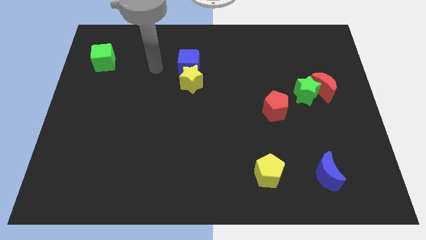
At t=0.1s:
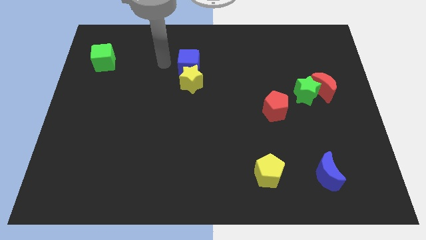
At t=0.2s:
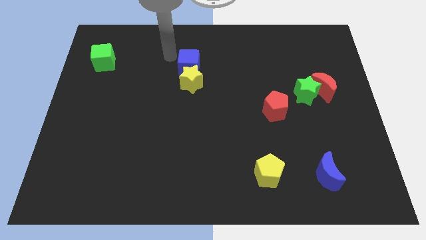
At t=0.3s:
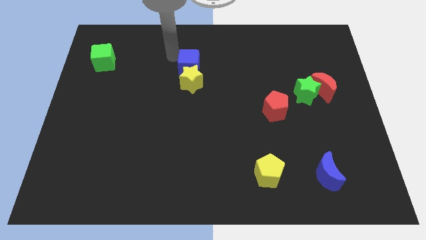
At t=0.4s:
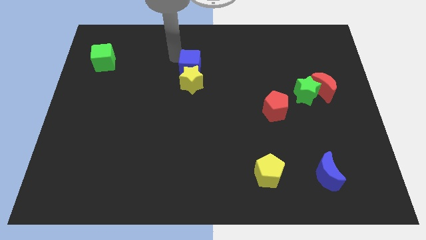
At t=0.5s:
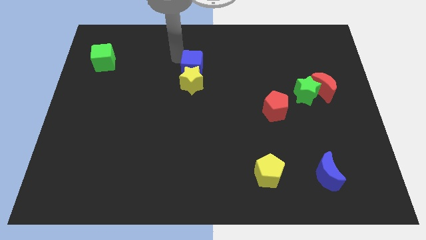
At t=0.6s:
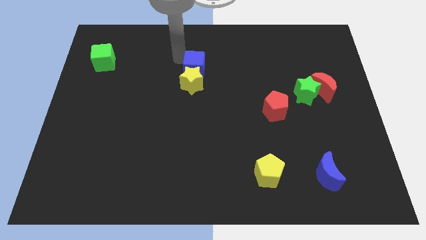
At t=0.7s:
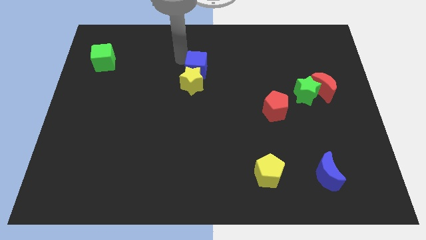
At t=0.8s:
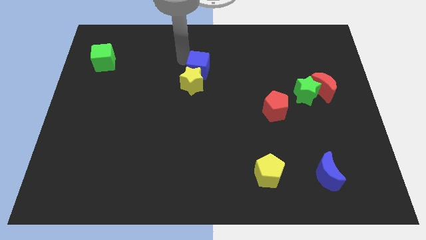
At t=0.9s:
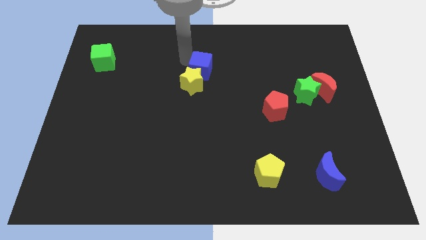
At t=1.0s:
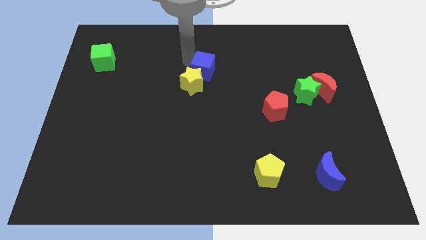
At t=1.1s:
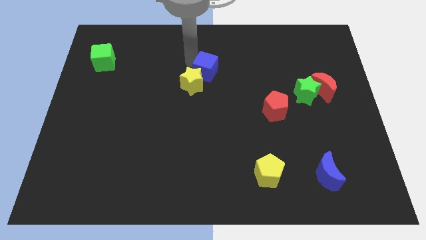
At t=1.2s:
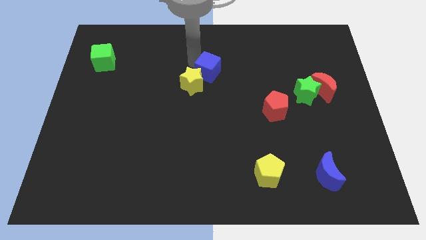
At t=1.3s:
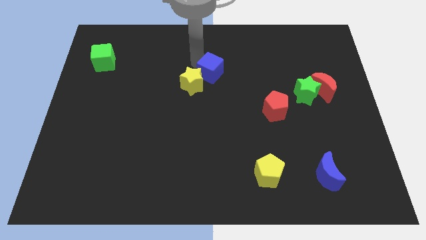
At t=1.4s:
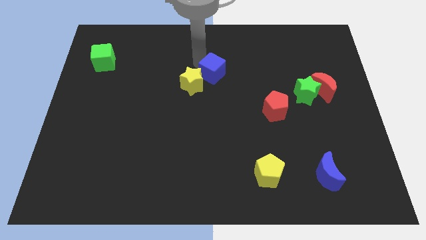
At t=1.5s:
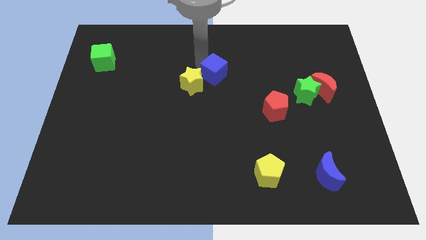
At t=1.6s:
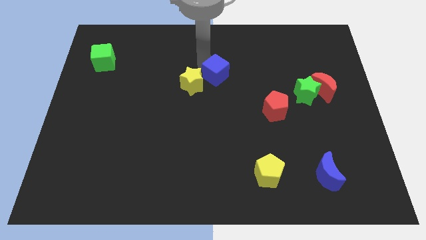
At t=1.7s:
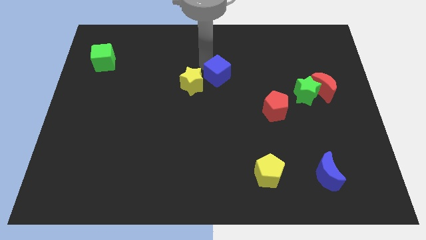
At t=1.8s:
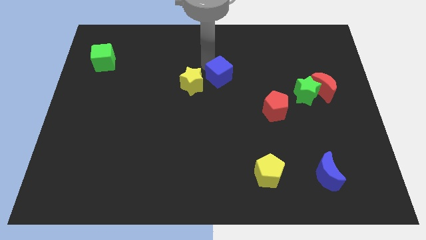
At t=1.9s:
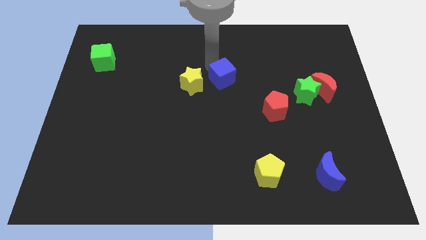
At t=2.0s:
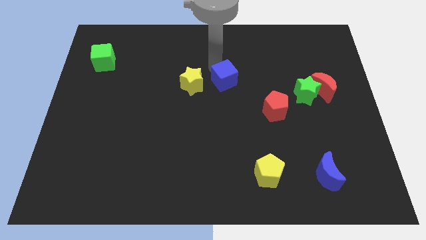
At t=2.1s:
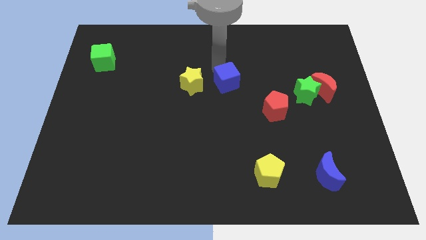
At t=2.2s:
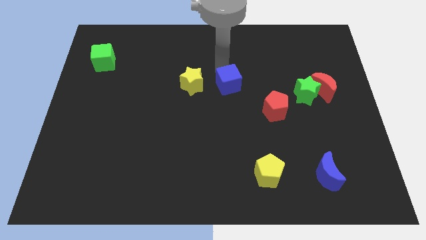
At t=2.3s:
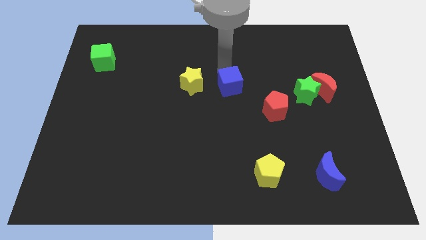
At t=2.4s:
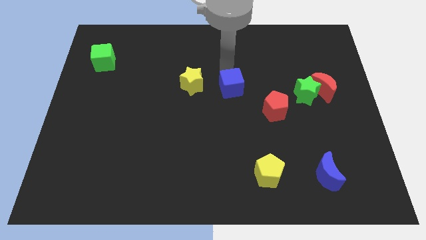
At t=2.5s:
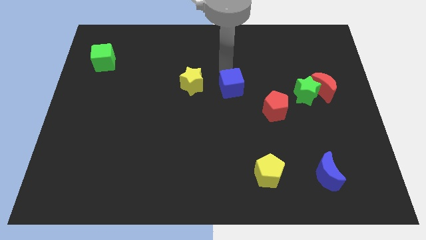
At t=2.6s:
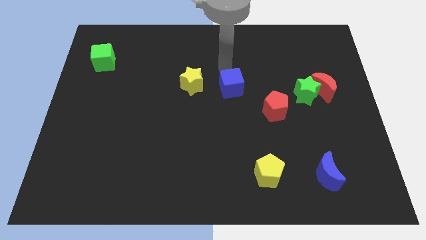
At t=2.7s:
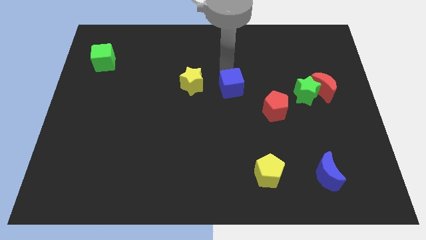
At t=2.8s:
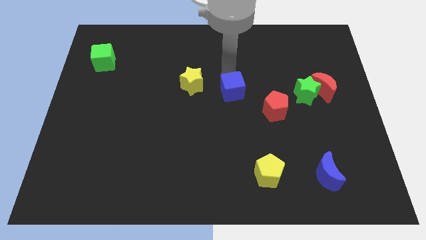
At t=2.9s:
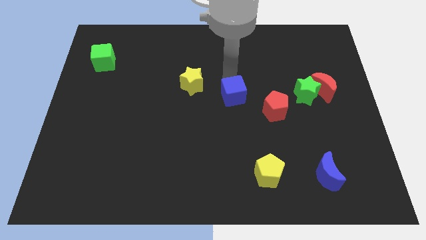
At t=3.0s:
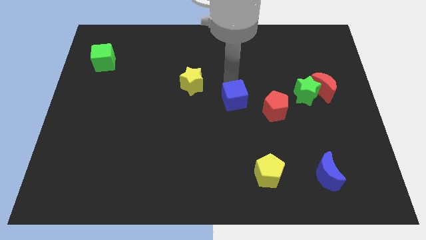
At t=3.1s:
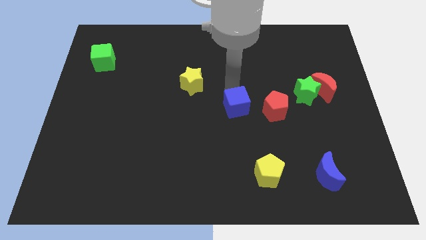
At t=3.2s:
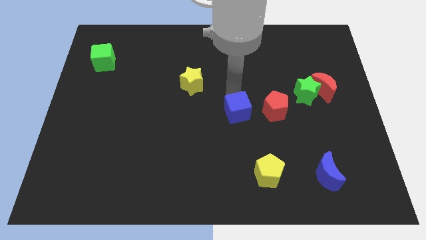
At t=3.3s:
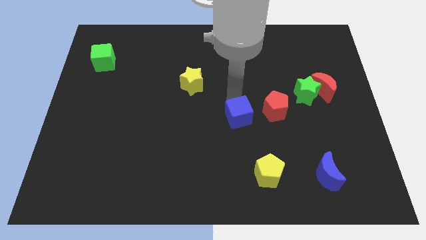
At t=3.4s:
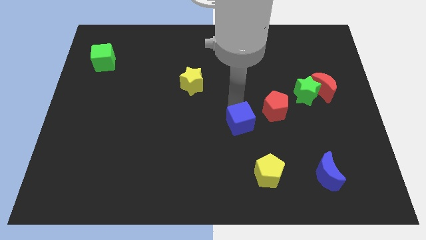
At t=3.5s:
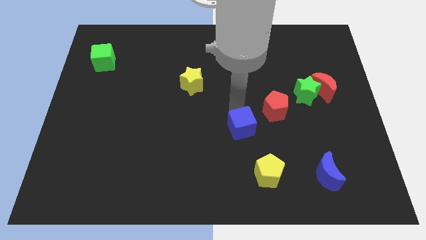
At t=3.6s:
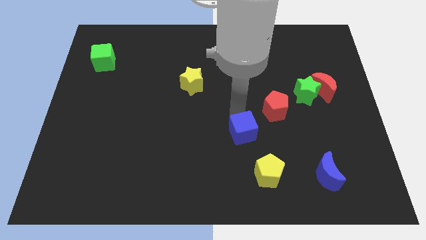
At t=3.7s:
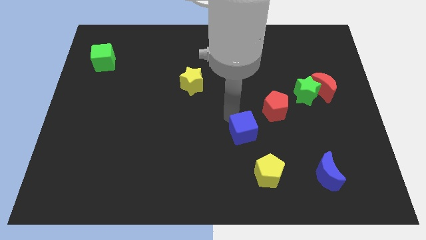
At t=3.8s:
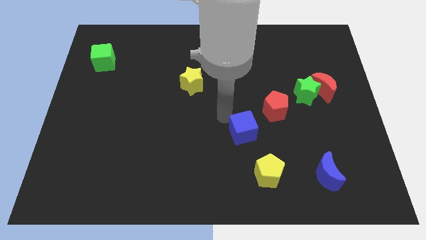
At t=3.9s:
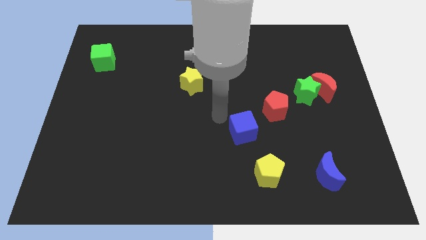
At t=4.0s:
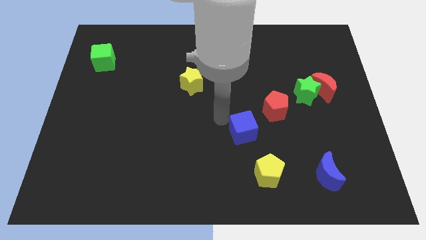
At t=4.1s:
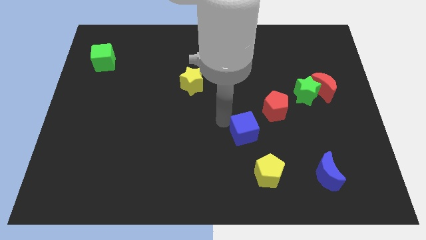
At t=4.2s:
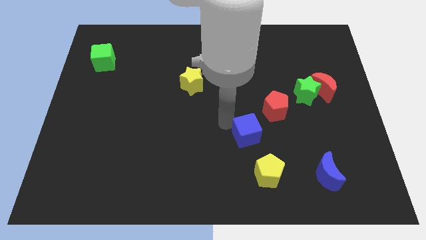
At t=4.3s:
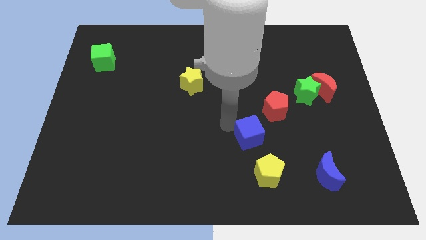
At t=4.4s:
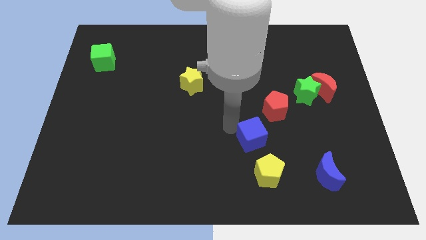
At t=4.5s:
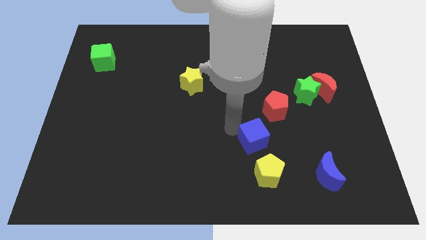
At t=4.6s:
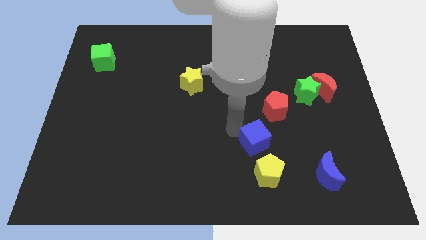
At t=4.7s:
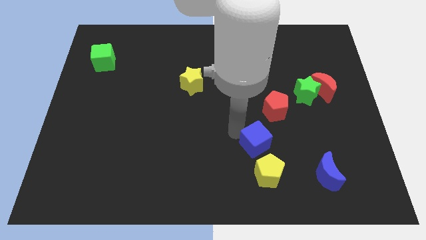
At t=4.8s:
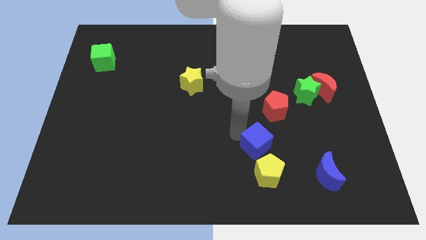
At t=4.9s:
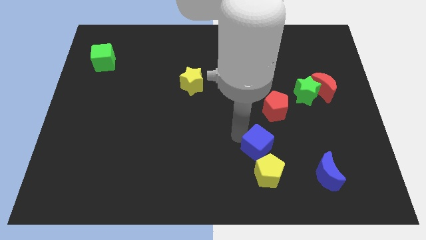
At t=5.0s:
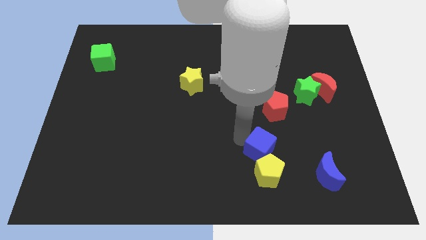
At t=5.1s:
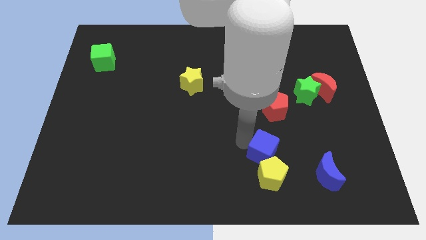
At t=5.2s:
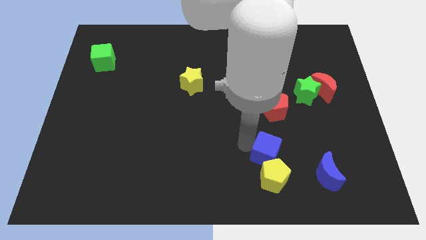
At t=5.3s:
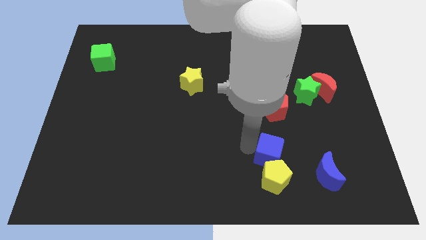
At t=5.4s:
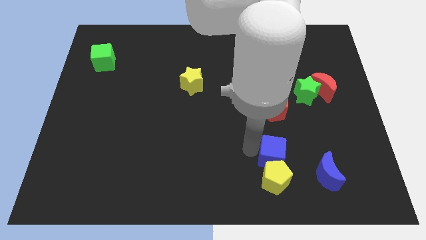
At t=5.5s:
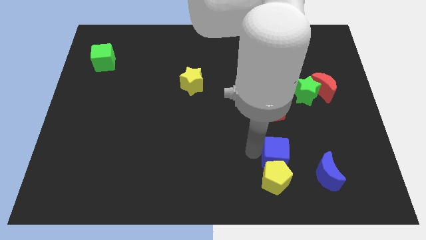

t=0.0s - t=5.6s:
push the blue cube to the top left of the blue moon

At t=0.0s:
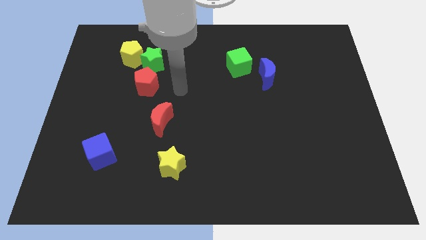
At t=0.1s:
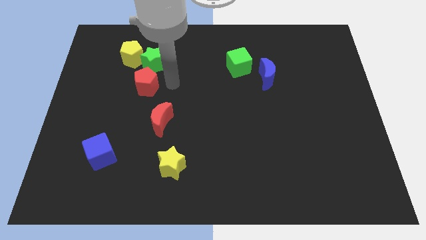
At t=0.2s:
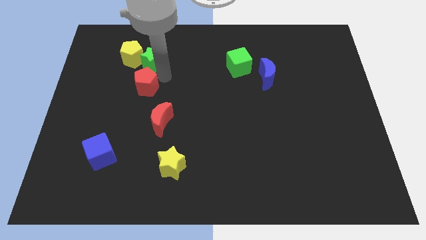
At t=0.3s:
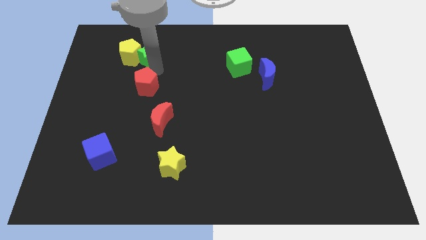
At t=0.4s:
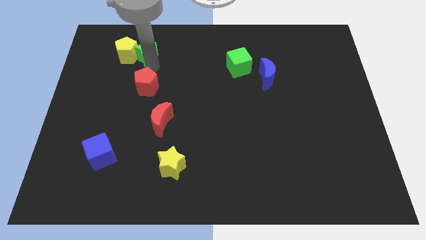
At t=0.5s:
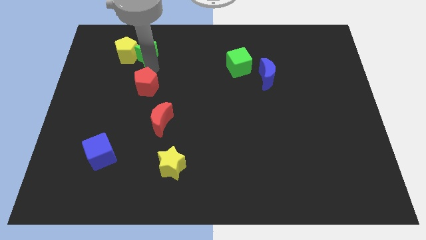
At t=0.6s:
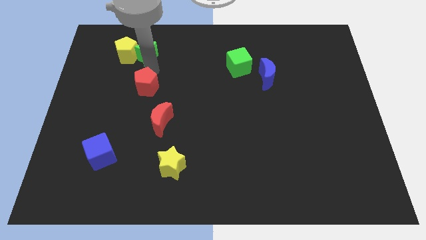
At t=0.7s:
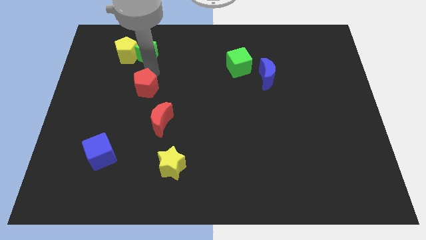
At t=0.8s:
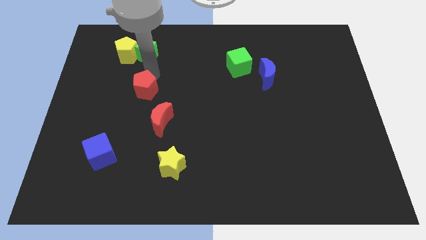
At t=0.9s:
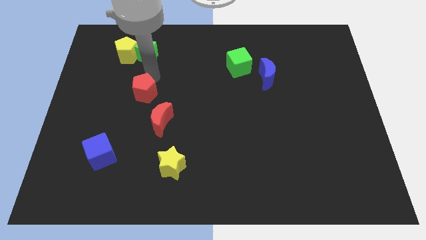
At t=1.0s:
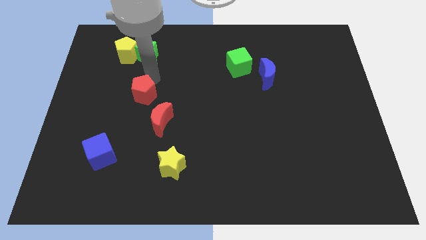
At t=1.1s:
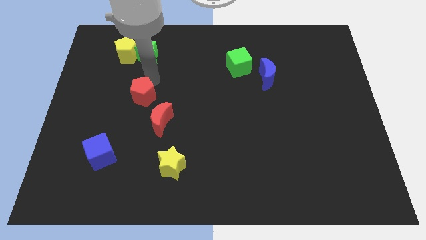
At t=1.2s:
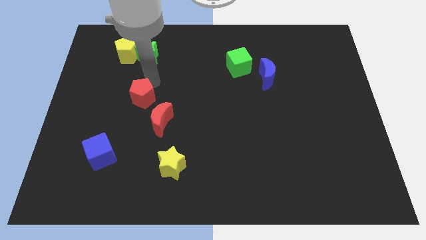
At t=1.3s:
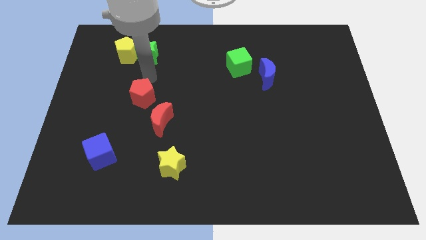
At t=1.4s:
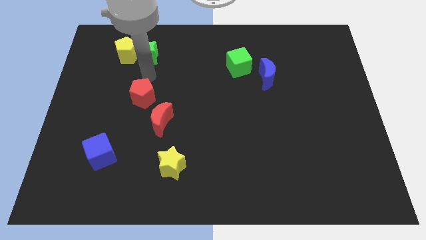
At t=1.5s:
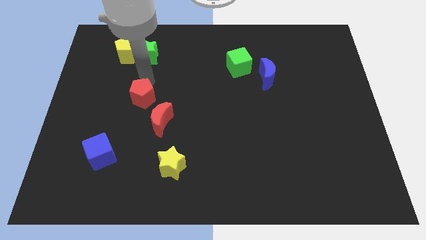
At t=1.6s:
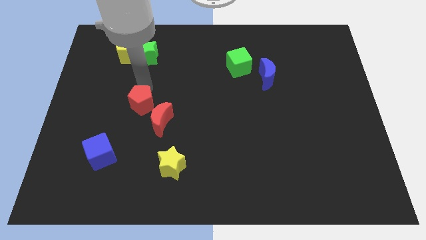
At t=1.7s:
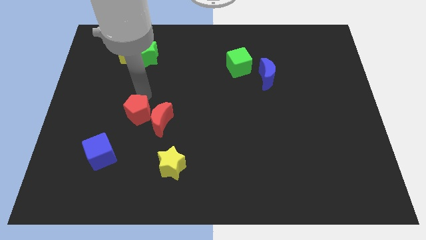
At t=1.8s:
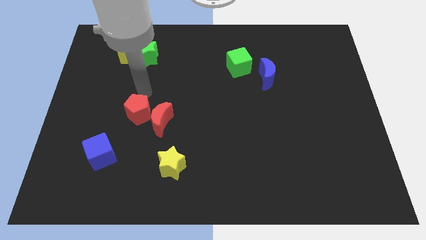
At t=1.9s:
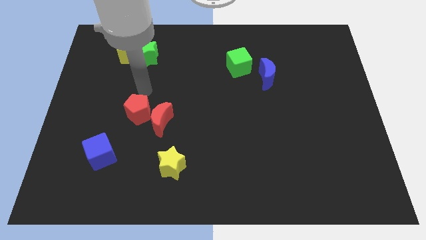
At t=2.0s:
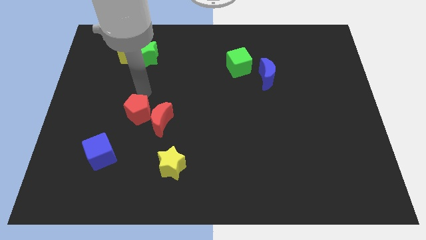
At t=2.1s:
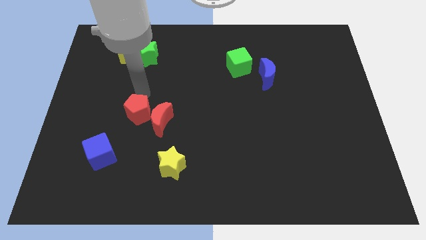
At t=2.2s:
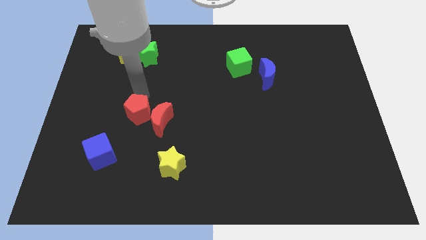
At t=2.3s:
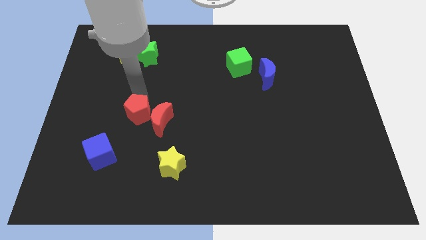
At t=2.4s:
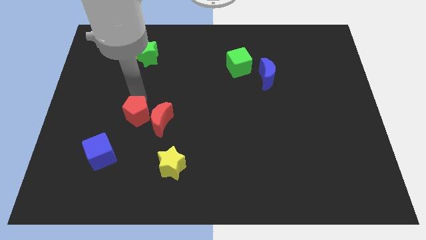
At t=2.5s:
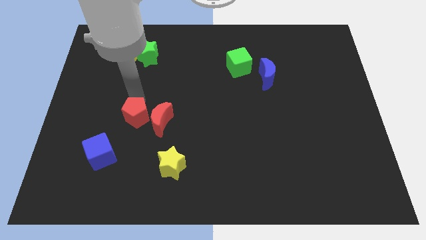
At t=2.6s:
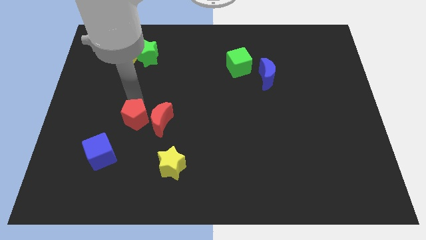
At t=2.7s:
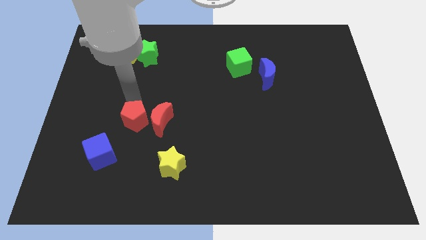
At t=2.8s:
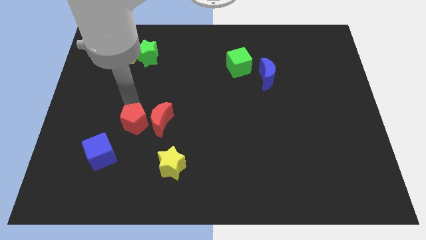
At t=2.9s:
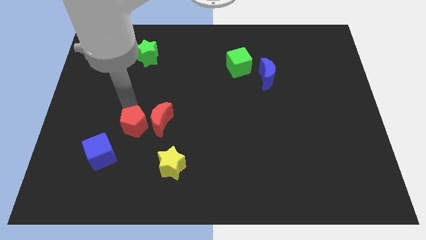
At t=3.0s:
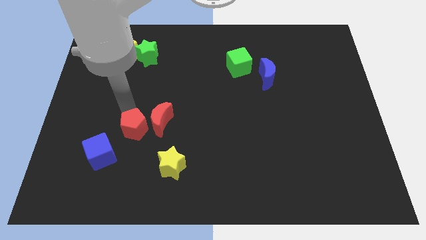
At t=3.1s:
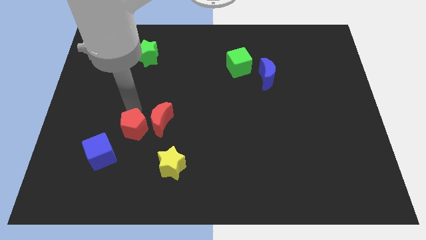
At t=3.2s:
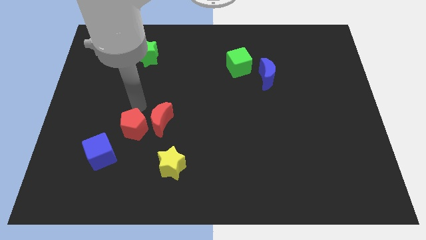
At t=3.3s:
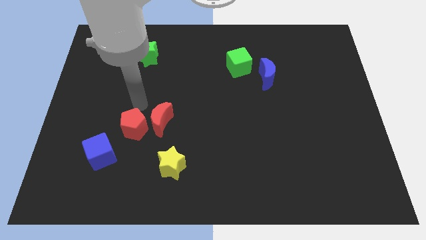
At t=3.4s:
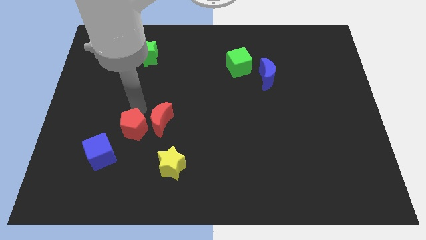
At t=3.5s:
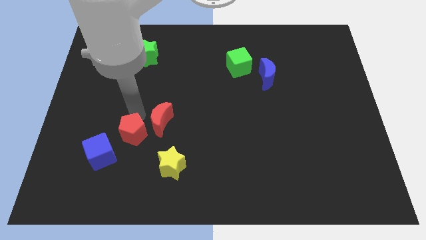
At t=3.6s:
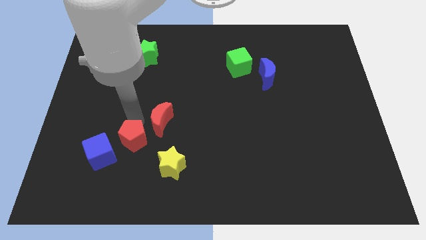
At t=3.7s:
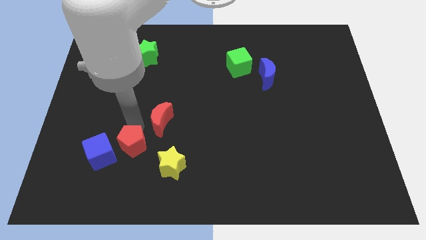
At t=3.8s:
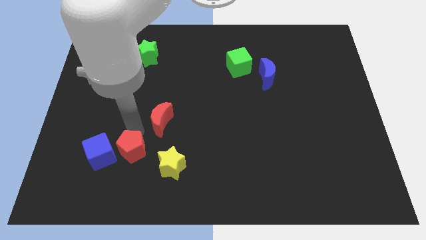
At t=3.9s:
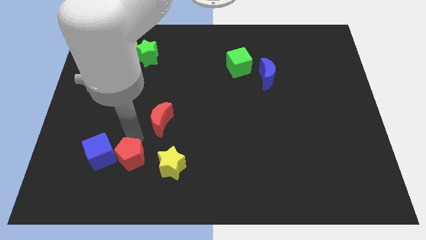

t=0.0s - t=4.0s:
slide the red pentagon to the bottom right of the blue cube
